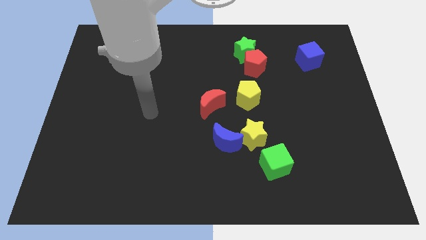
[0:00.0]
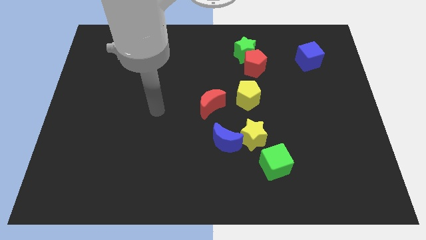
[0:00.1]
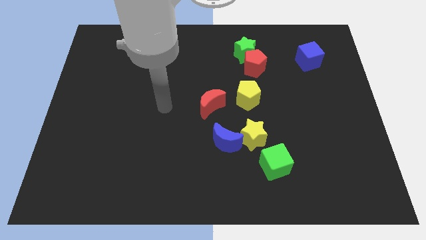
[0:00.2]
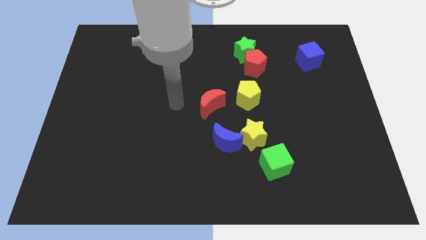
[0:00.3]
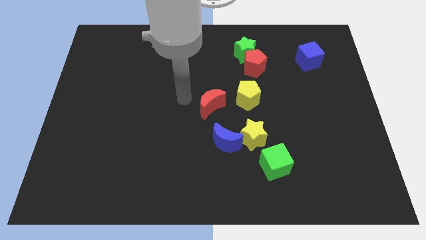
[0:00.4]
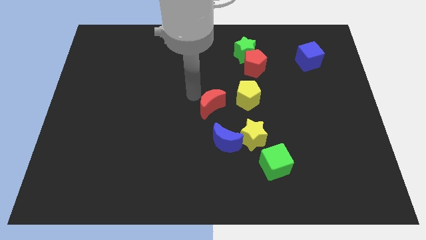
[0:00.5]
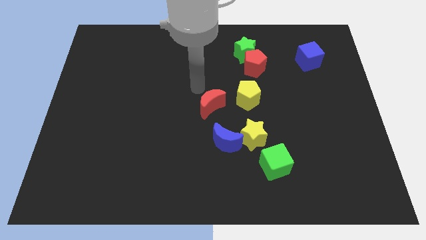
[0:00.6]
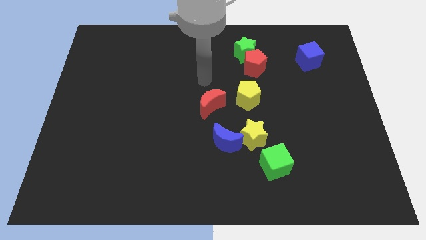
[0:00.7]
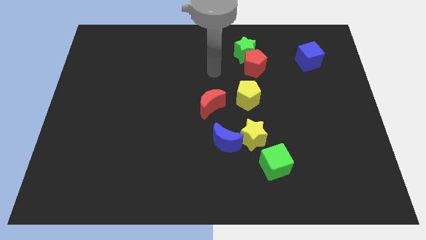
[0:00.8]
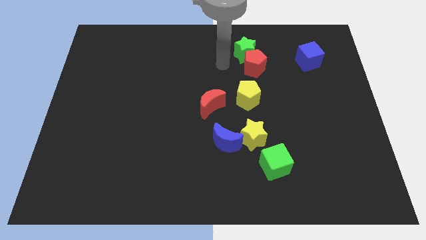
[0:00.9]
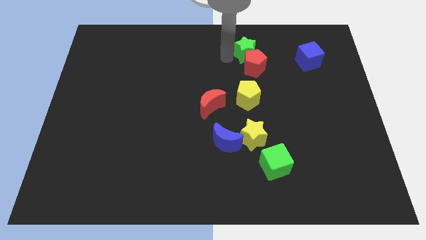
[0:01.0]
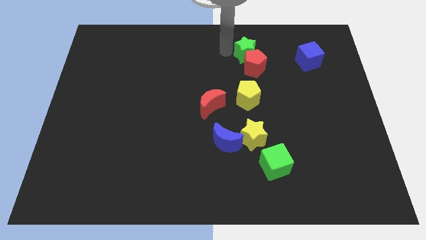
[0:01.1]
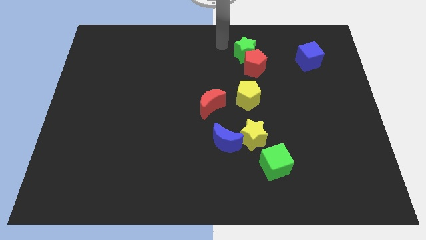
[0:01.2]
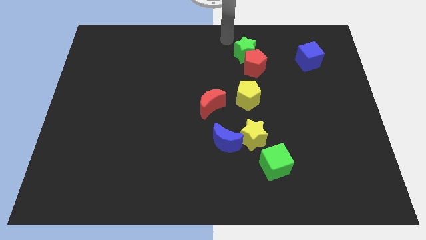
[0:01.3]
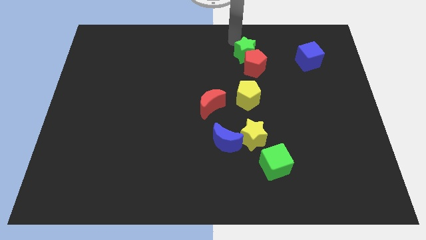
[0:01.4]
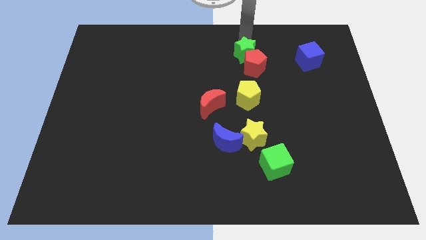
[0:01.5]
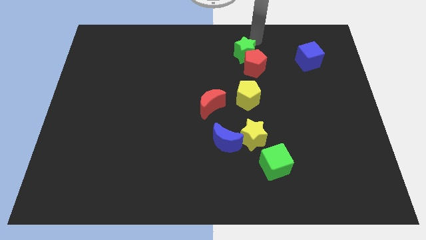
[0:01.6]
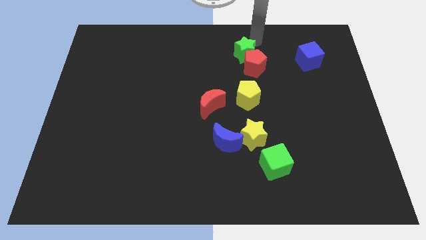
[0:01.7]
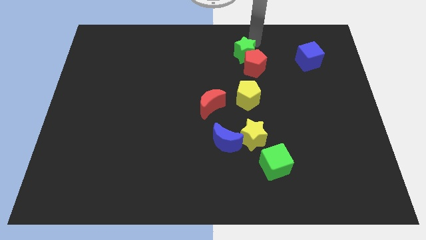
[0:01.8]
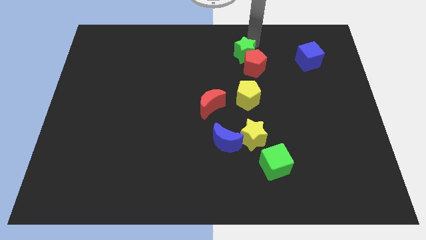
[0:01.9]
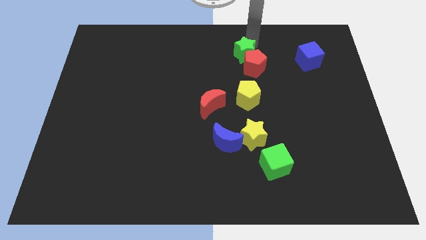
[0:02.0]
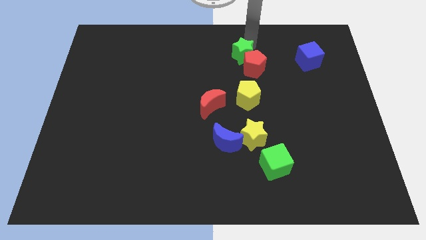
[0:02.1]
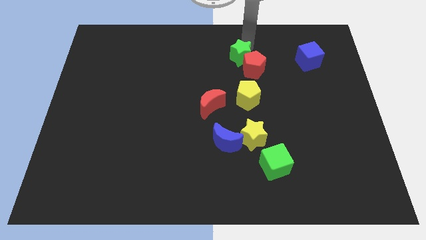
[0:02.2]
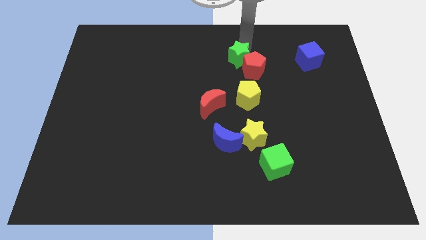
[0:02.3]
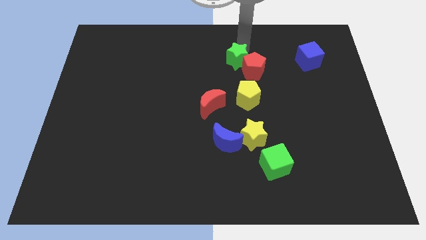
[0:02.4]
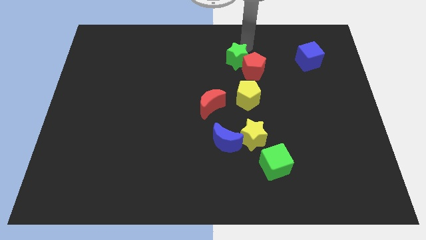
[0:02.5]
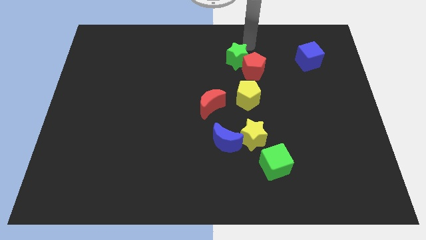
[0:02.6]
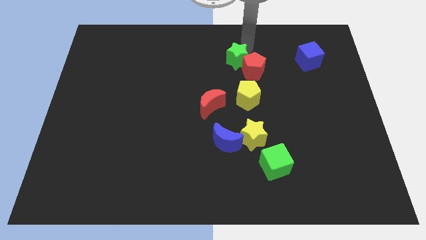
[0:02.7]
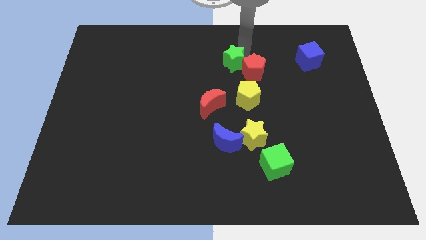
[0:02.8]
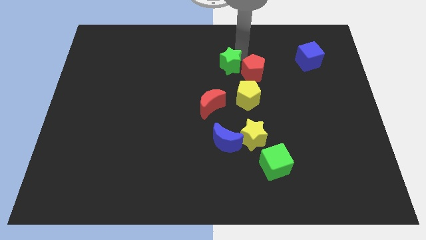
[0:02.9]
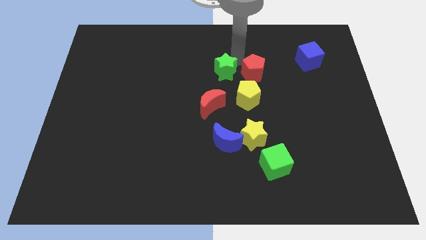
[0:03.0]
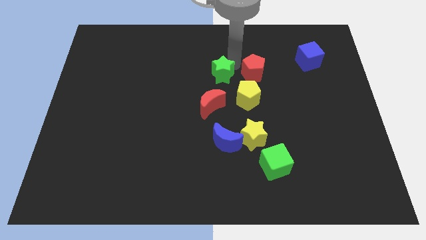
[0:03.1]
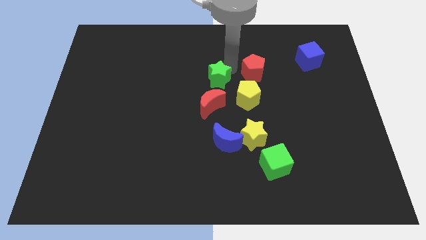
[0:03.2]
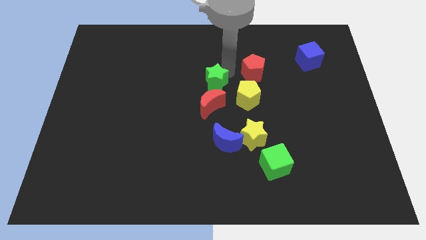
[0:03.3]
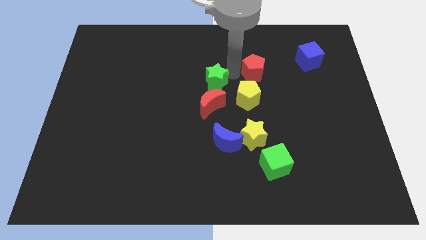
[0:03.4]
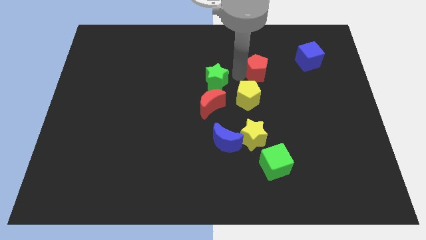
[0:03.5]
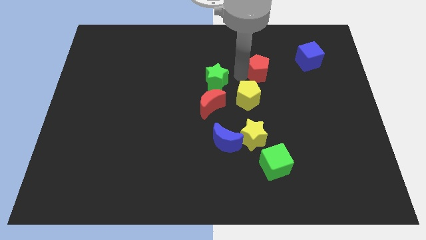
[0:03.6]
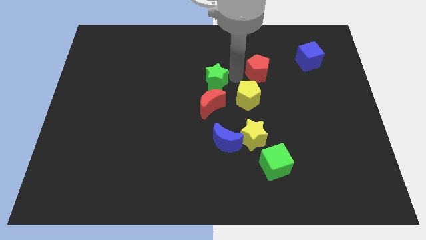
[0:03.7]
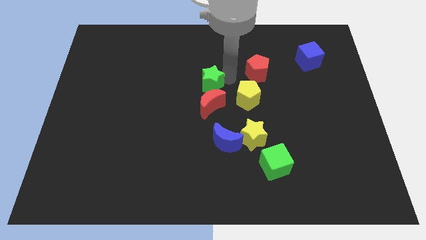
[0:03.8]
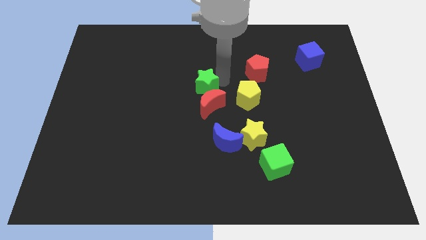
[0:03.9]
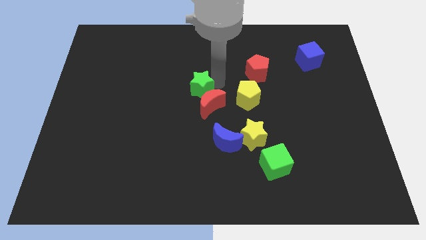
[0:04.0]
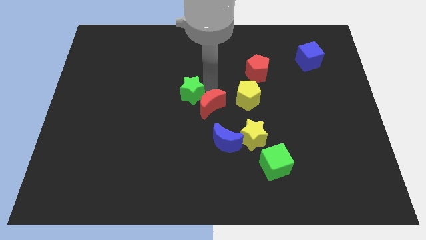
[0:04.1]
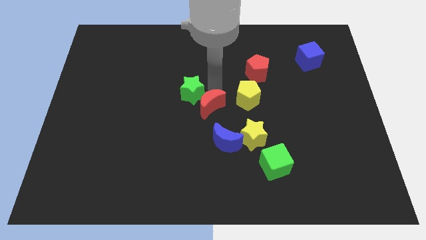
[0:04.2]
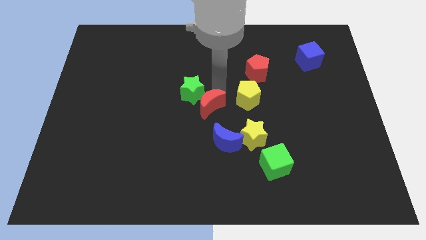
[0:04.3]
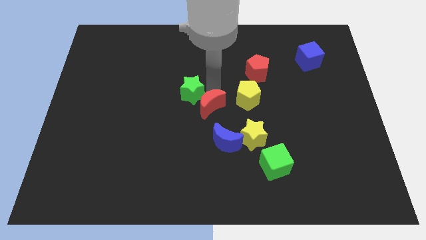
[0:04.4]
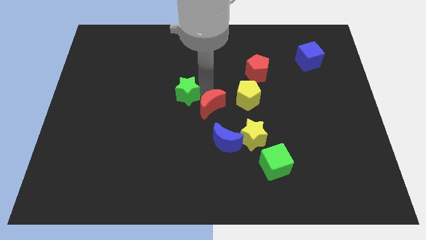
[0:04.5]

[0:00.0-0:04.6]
push the green star downwards and to the left diagonally

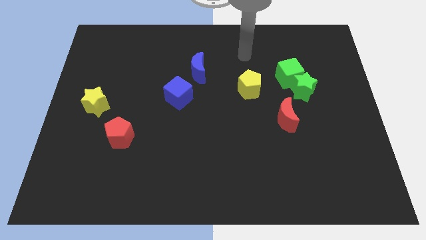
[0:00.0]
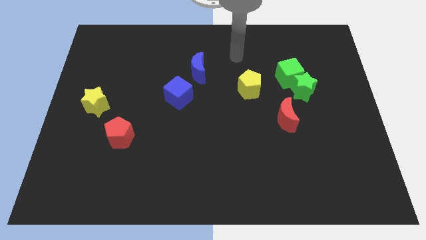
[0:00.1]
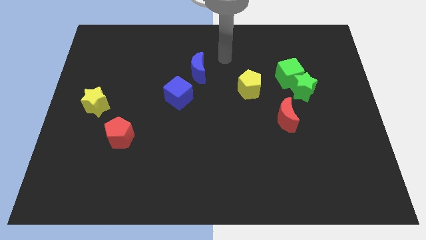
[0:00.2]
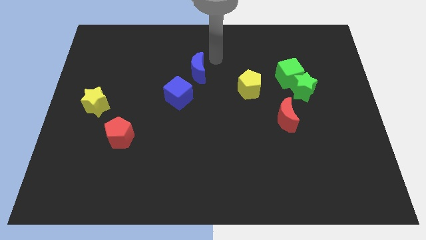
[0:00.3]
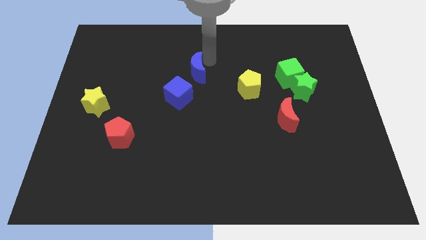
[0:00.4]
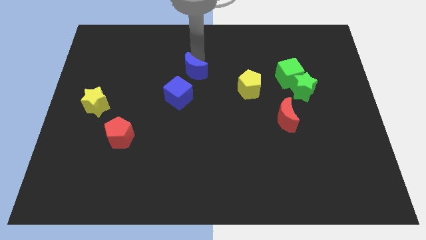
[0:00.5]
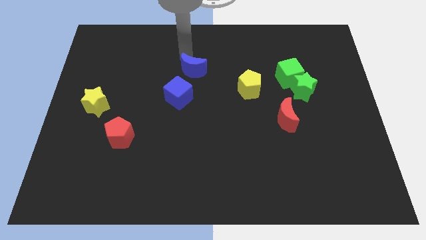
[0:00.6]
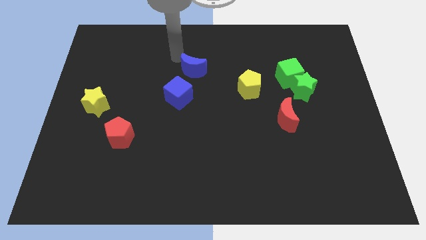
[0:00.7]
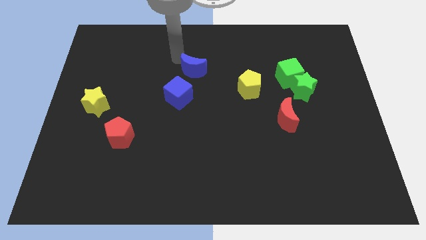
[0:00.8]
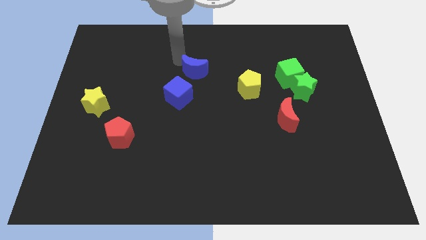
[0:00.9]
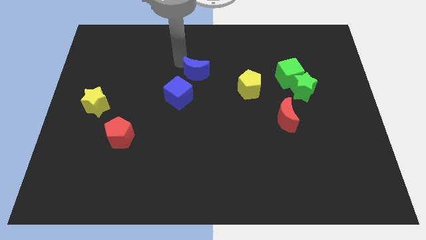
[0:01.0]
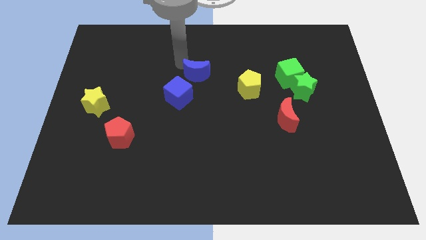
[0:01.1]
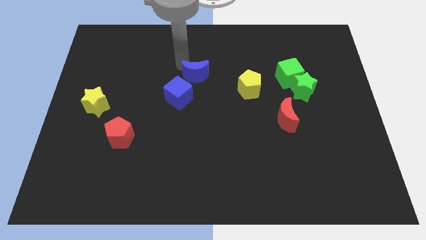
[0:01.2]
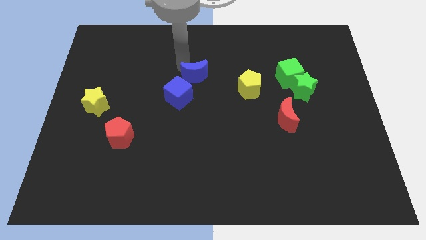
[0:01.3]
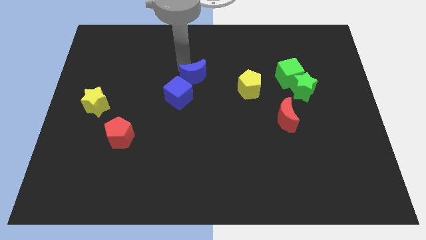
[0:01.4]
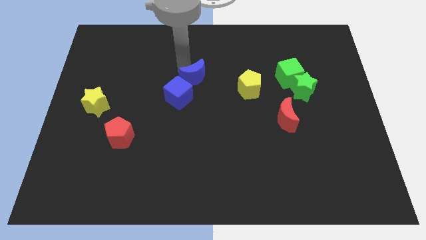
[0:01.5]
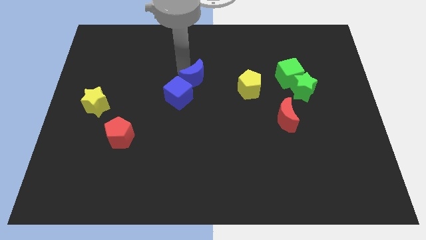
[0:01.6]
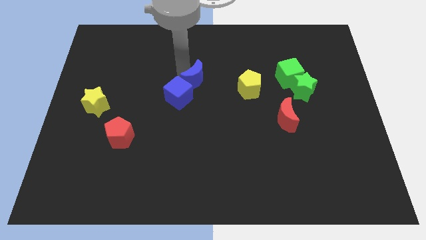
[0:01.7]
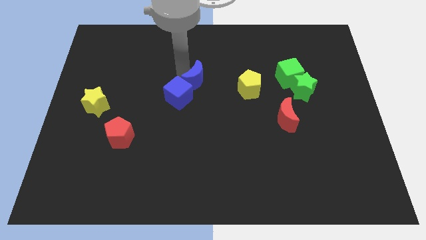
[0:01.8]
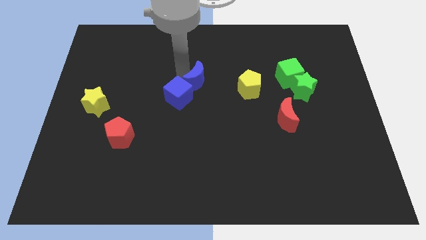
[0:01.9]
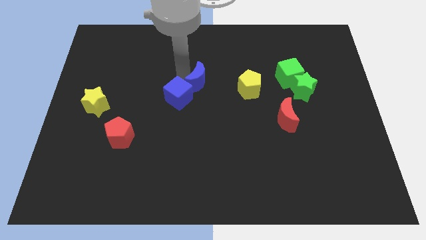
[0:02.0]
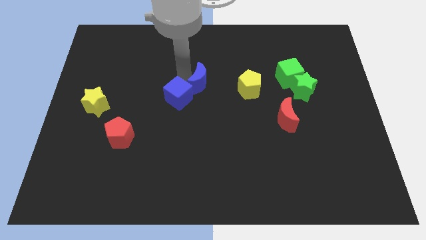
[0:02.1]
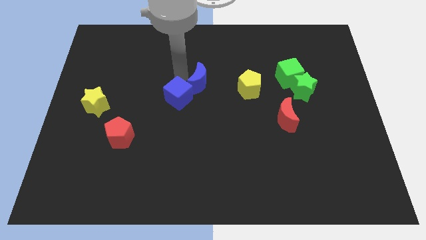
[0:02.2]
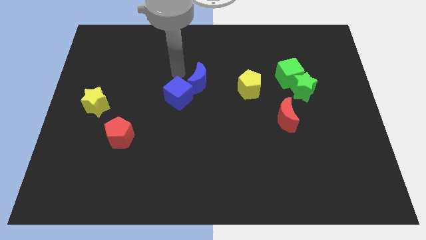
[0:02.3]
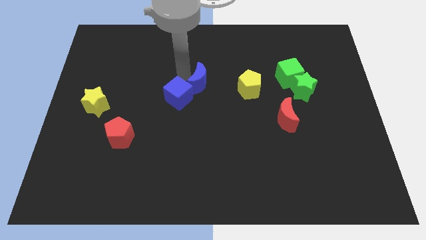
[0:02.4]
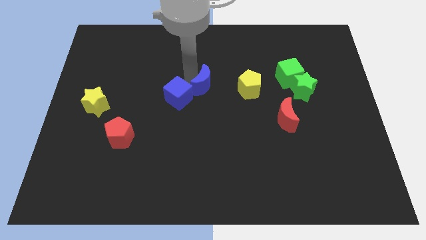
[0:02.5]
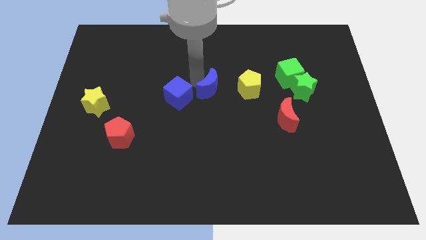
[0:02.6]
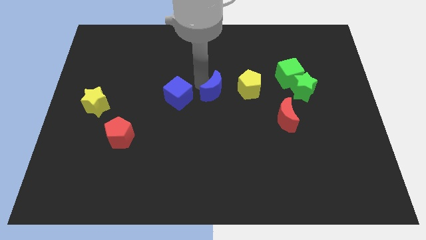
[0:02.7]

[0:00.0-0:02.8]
move the blue moon diagonally downwards and to the right a little bit

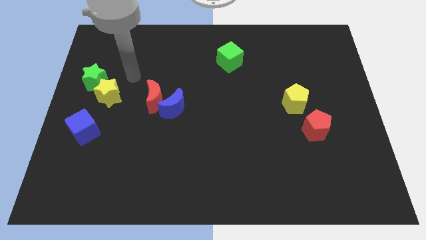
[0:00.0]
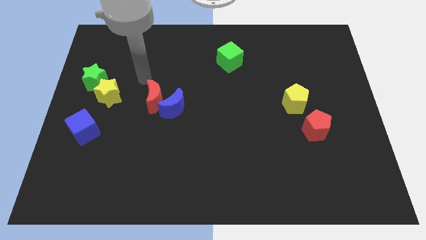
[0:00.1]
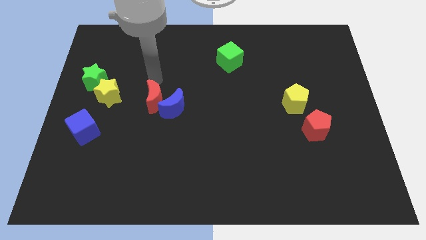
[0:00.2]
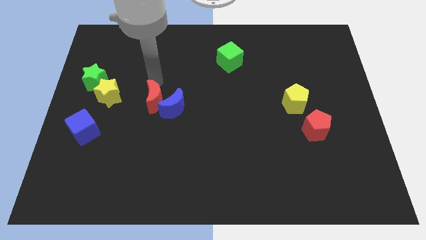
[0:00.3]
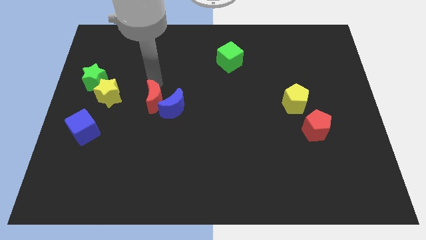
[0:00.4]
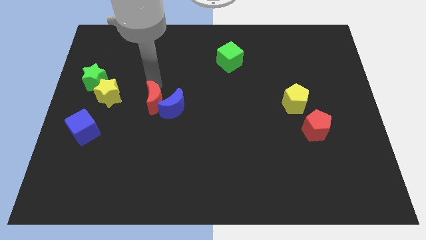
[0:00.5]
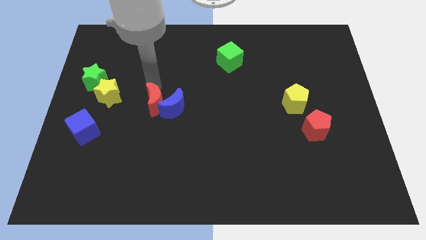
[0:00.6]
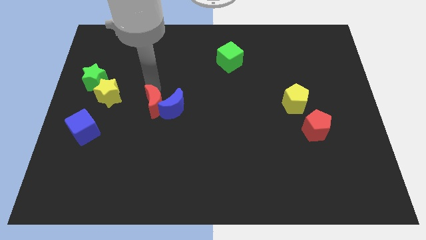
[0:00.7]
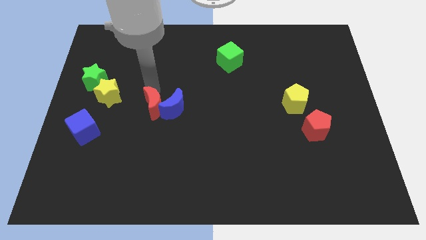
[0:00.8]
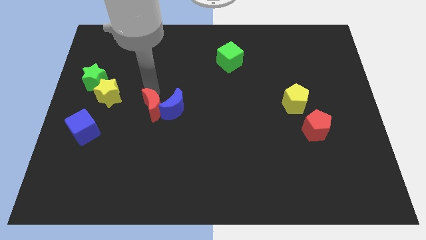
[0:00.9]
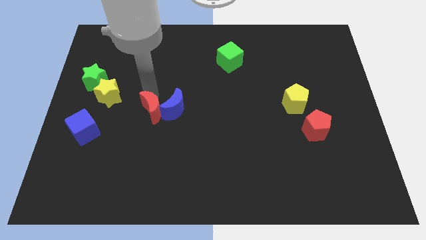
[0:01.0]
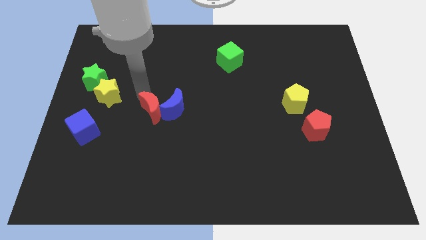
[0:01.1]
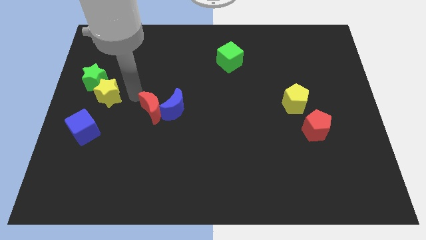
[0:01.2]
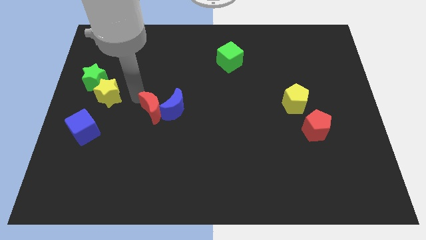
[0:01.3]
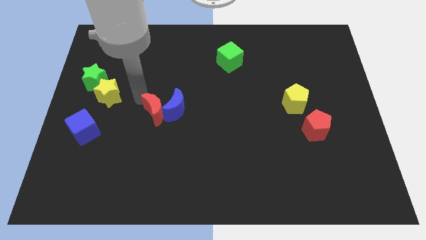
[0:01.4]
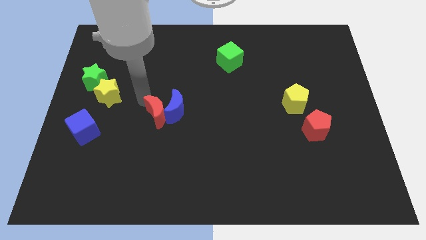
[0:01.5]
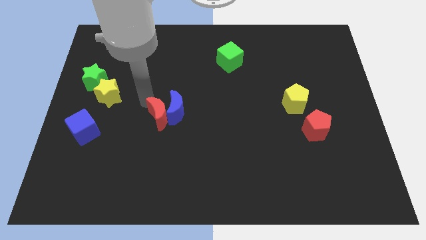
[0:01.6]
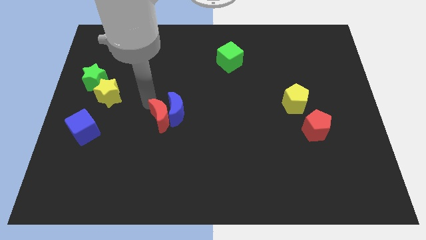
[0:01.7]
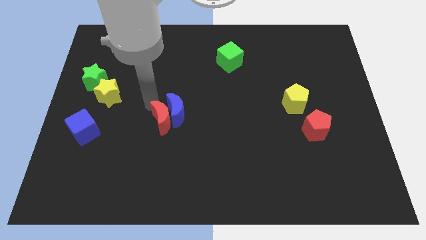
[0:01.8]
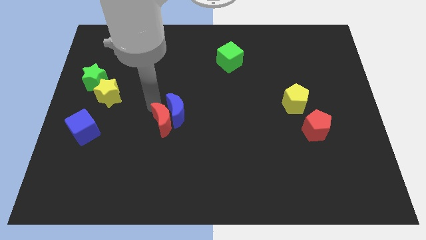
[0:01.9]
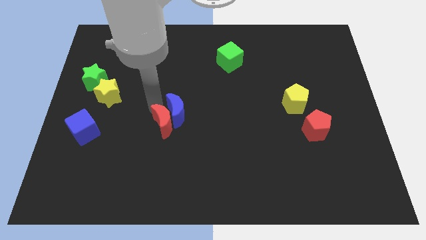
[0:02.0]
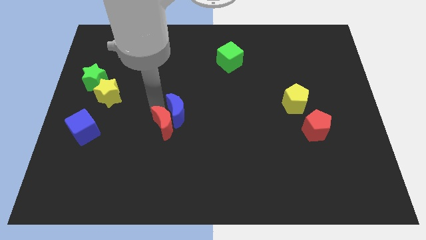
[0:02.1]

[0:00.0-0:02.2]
slightly push the red moon downwards and to the right diagonally
